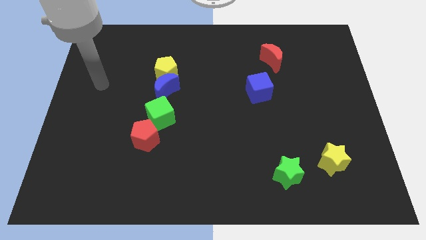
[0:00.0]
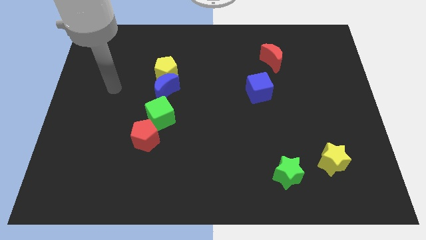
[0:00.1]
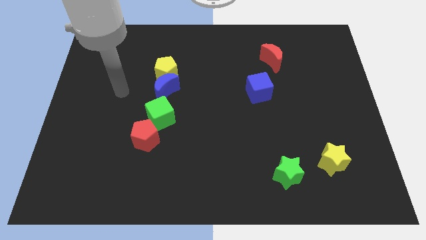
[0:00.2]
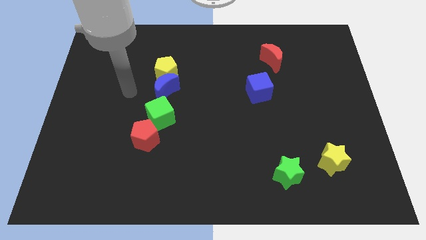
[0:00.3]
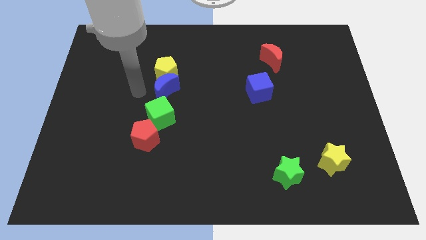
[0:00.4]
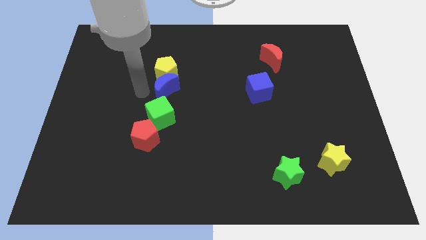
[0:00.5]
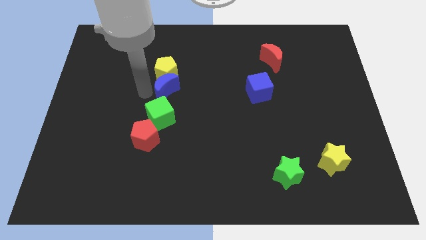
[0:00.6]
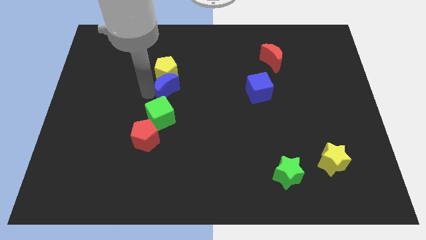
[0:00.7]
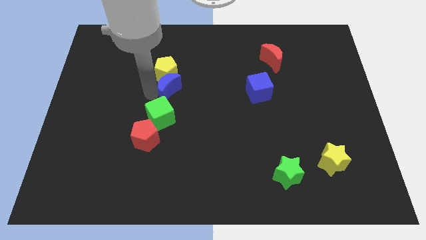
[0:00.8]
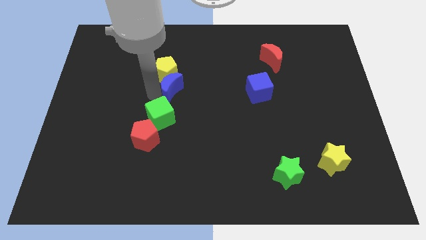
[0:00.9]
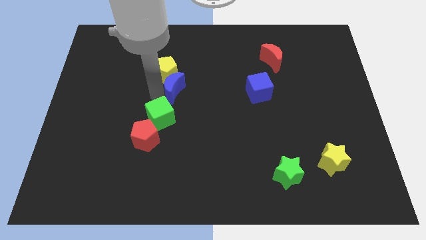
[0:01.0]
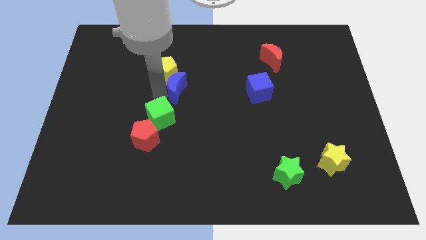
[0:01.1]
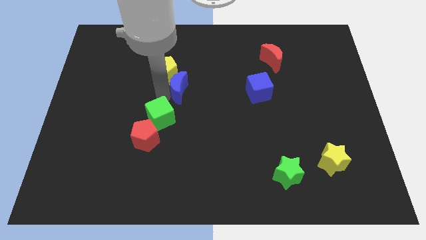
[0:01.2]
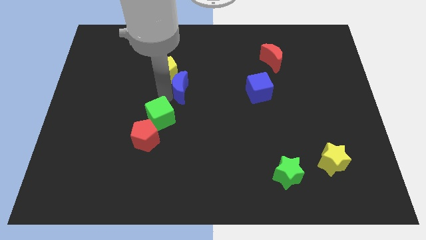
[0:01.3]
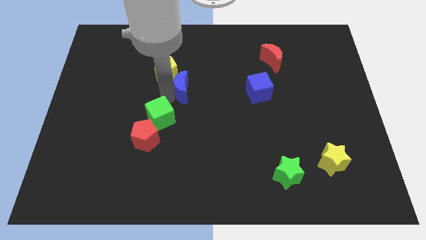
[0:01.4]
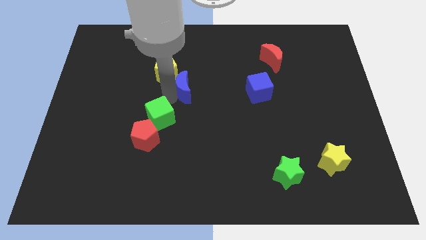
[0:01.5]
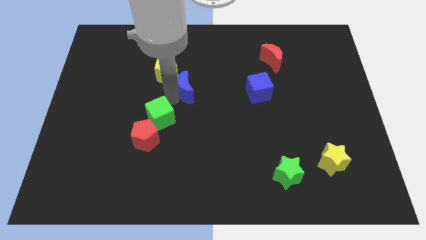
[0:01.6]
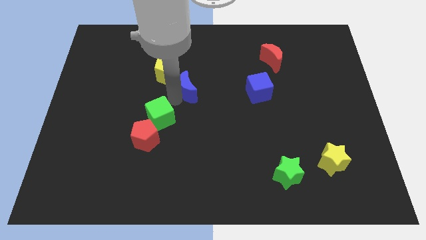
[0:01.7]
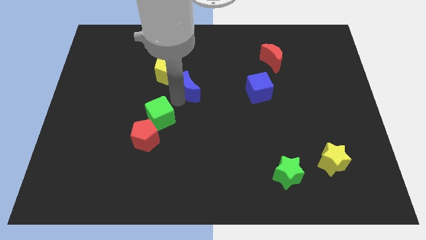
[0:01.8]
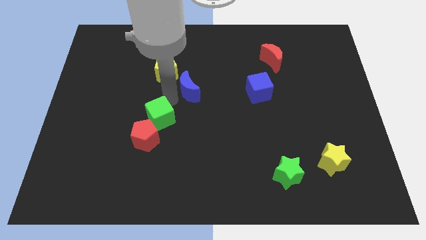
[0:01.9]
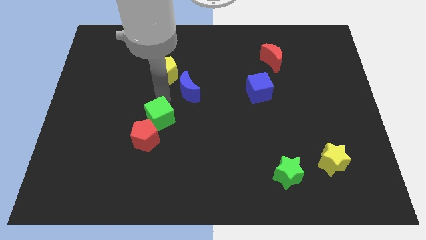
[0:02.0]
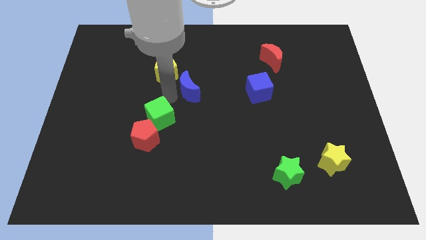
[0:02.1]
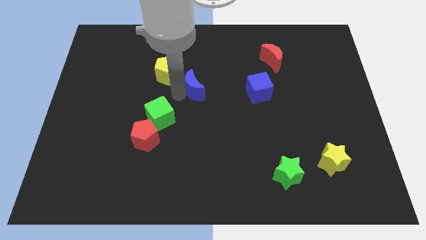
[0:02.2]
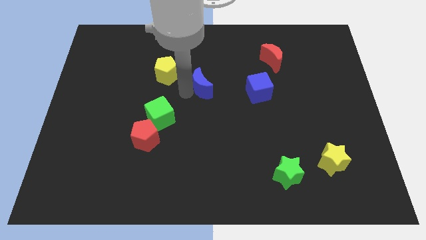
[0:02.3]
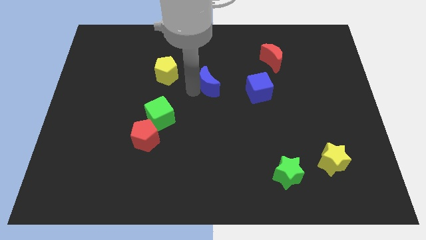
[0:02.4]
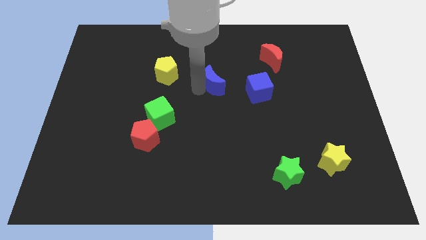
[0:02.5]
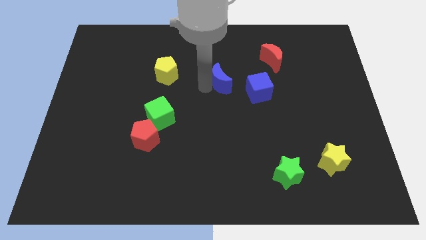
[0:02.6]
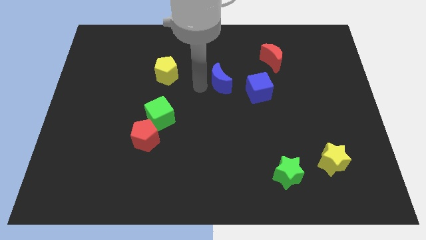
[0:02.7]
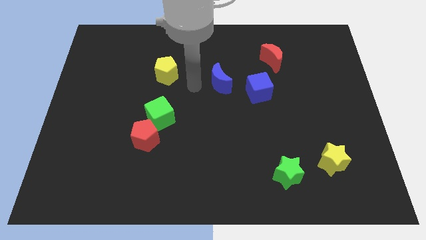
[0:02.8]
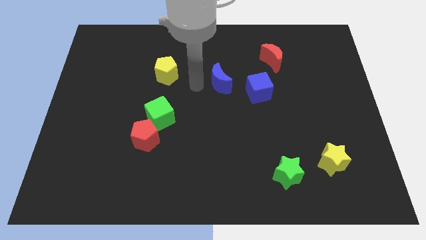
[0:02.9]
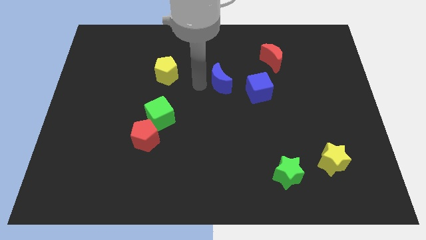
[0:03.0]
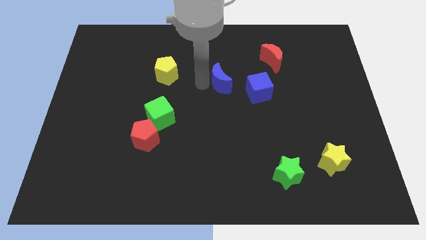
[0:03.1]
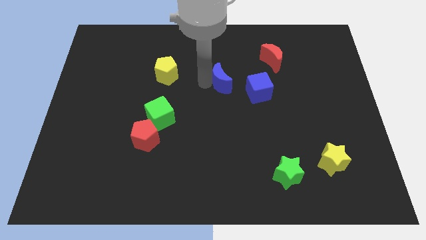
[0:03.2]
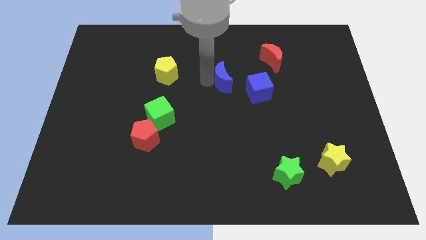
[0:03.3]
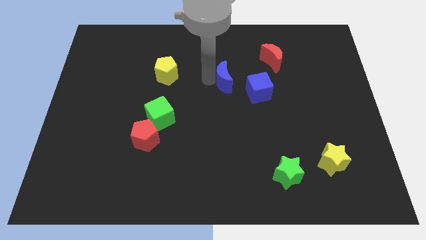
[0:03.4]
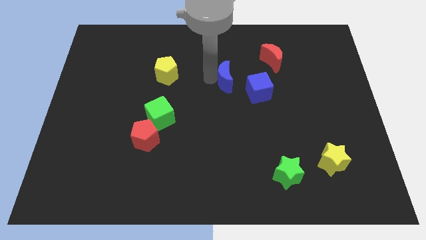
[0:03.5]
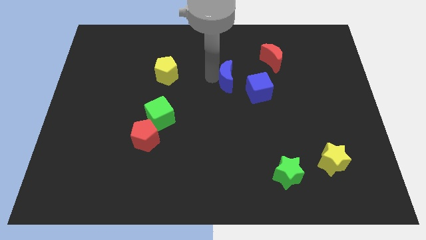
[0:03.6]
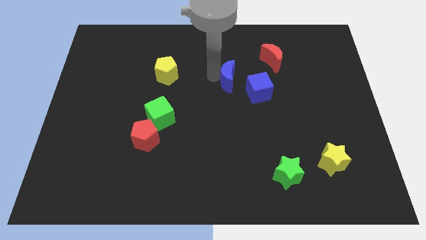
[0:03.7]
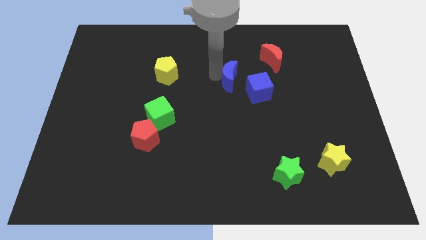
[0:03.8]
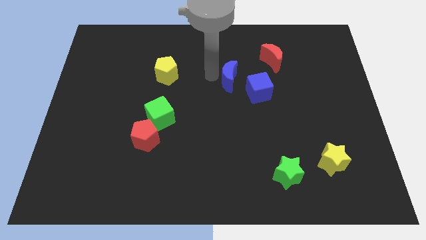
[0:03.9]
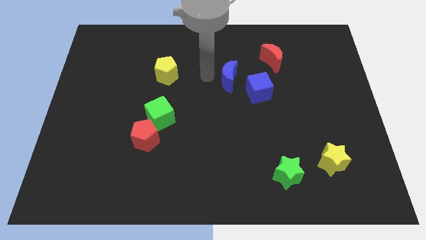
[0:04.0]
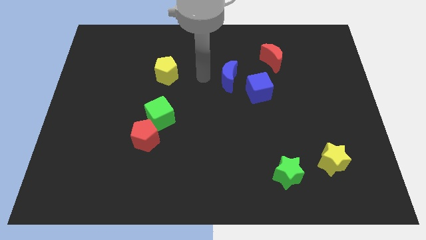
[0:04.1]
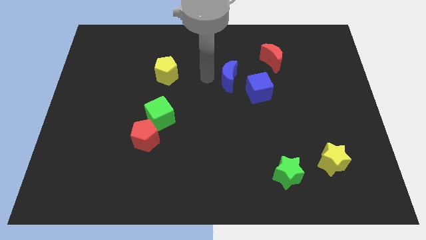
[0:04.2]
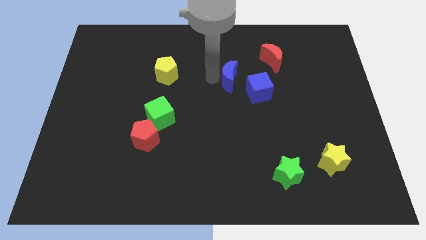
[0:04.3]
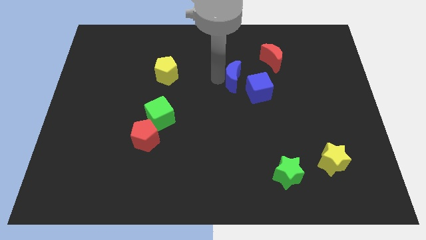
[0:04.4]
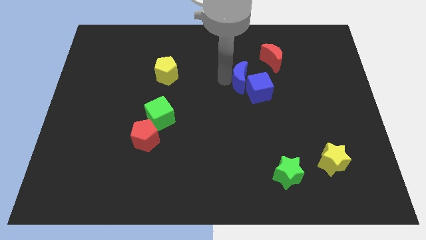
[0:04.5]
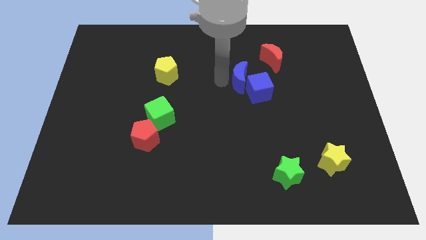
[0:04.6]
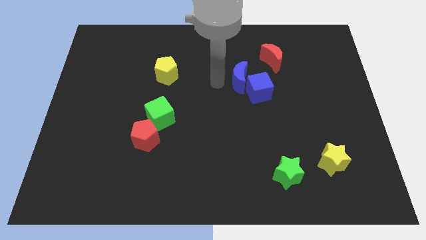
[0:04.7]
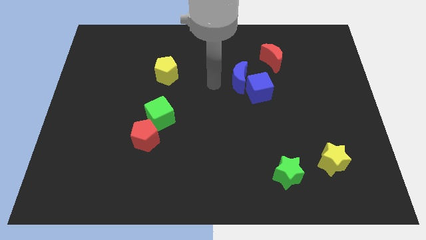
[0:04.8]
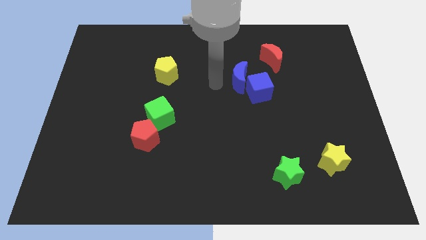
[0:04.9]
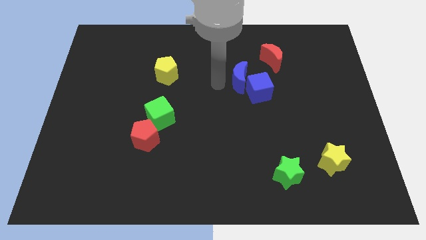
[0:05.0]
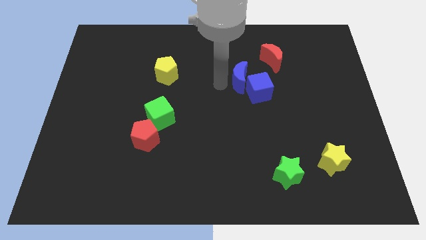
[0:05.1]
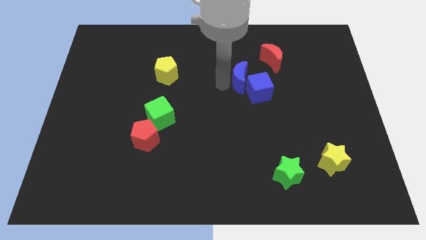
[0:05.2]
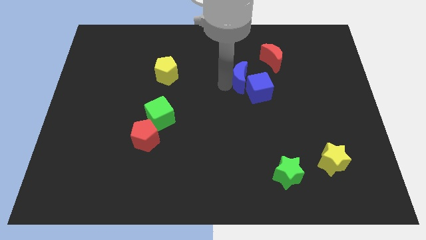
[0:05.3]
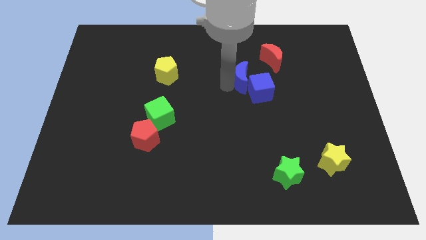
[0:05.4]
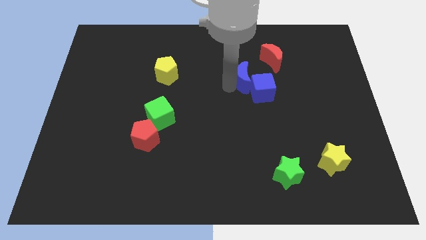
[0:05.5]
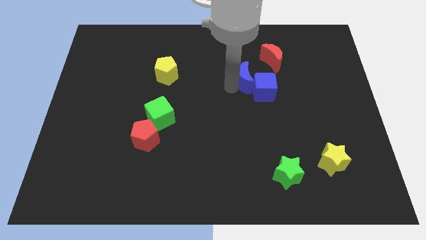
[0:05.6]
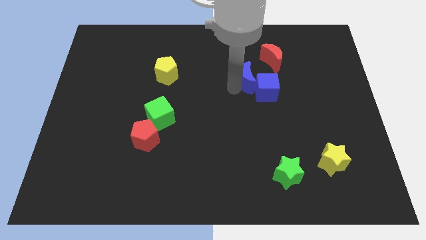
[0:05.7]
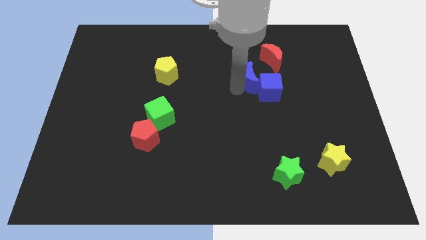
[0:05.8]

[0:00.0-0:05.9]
move the blue moon right

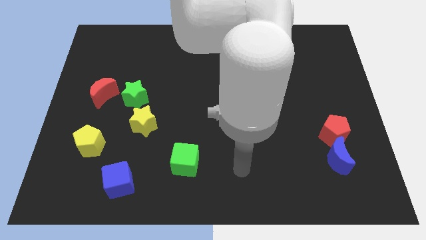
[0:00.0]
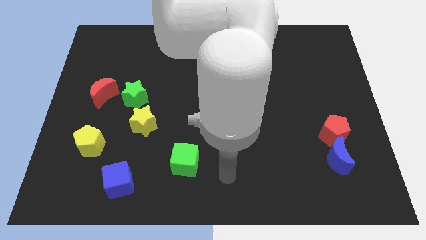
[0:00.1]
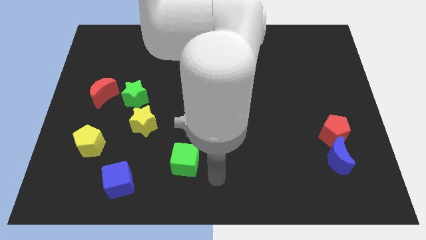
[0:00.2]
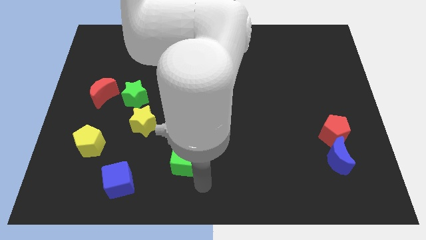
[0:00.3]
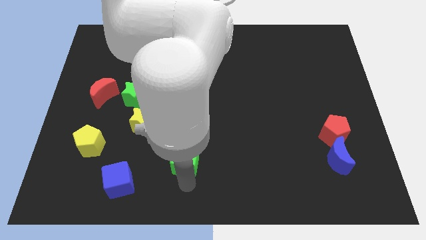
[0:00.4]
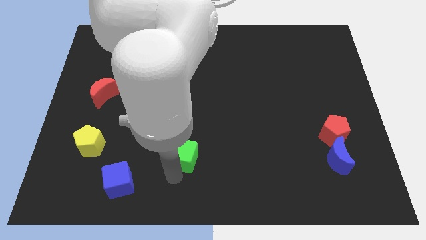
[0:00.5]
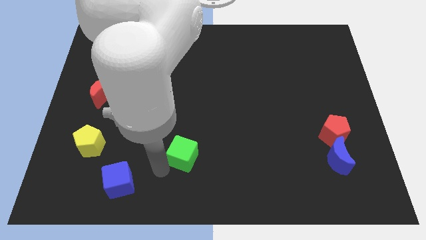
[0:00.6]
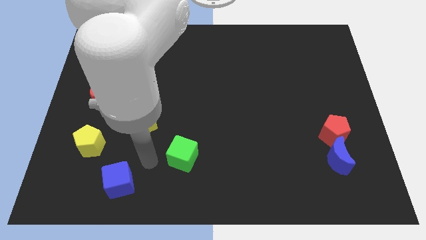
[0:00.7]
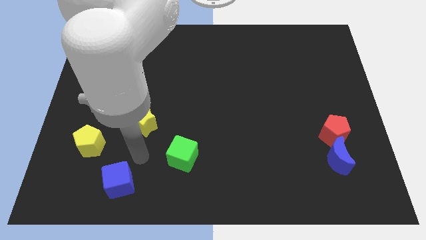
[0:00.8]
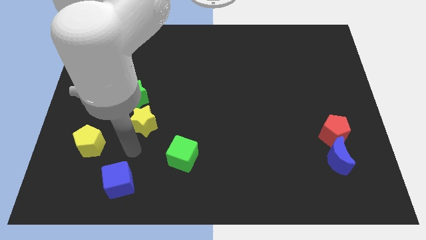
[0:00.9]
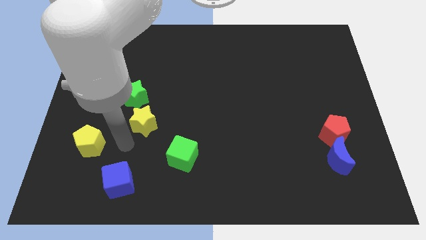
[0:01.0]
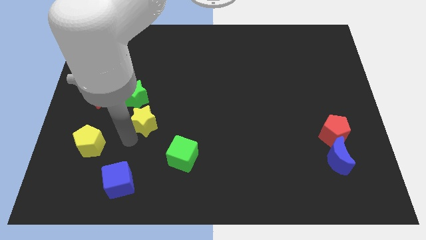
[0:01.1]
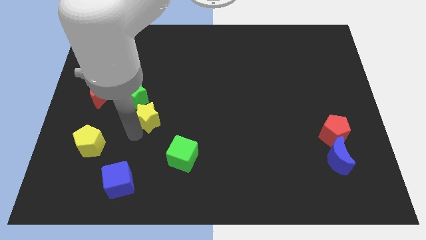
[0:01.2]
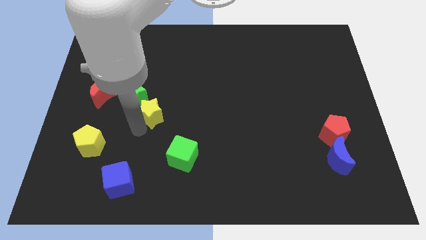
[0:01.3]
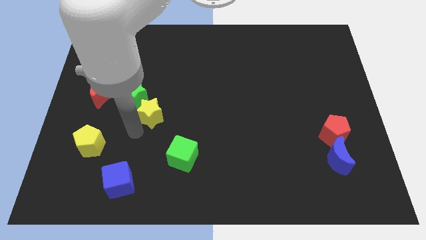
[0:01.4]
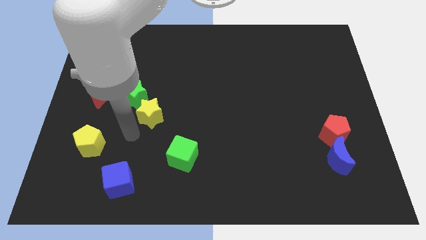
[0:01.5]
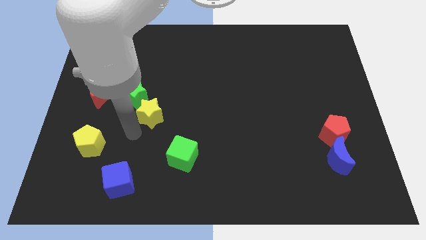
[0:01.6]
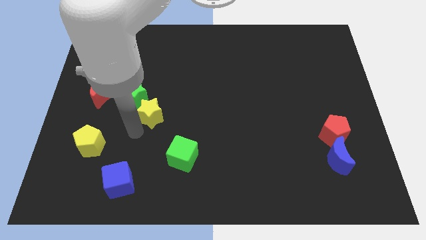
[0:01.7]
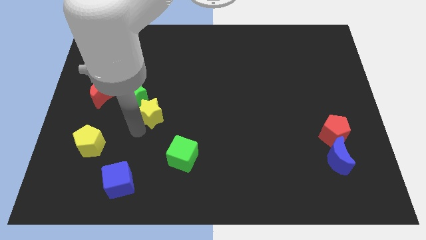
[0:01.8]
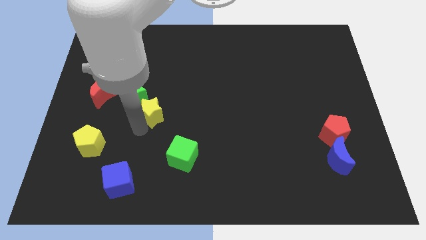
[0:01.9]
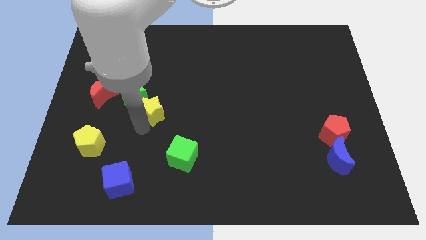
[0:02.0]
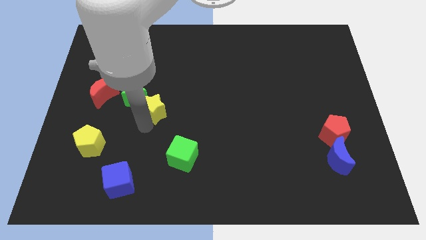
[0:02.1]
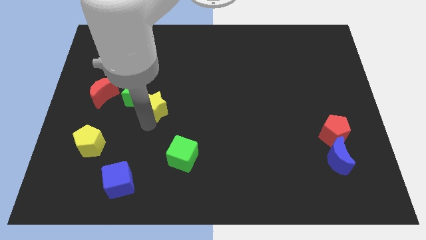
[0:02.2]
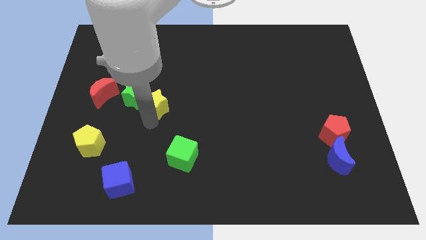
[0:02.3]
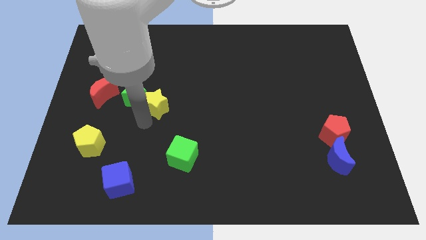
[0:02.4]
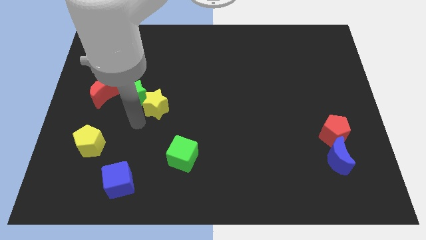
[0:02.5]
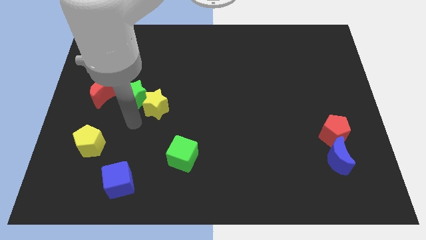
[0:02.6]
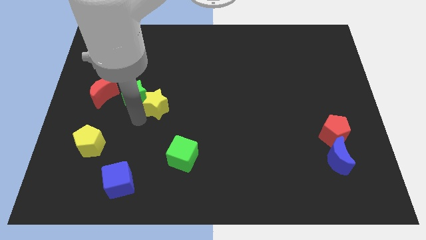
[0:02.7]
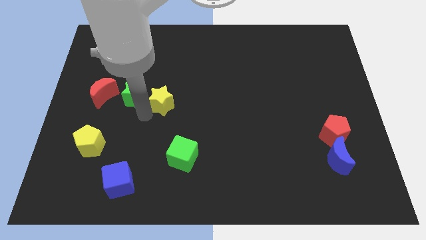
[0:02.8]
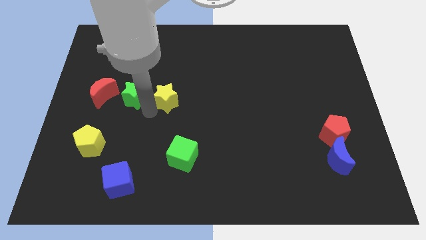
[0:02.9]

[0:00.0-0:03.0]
move the yellow star up and to the right diagonally a little bit
